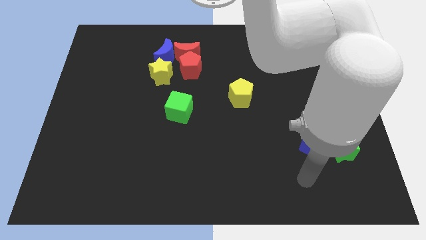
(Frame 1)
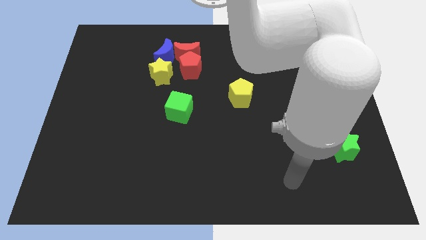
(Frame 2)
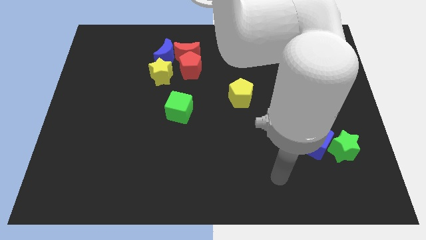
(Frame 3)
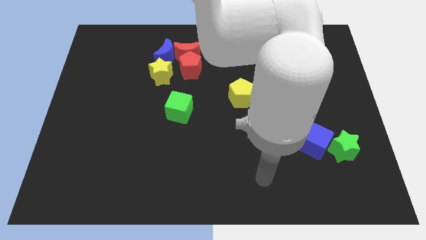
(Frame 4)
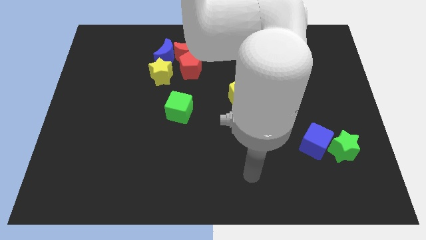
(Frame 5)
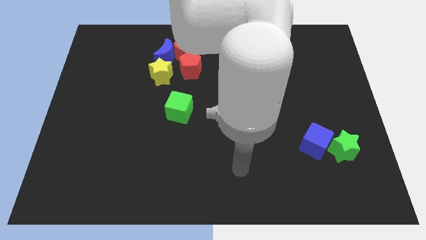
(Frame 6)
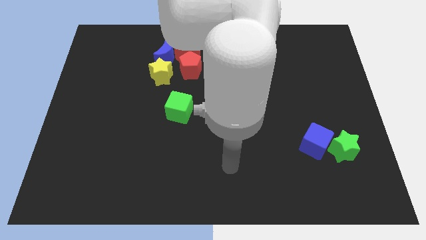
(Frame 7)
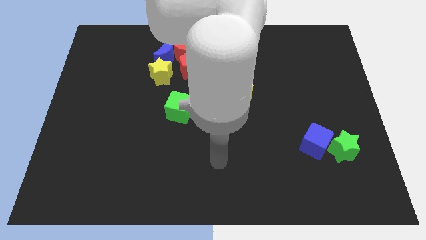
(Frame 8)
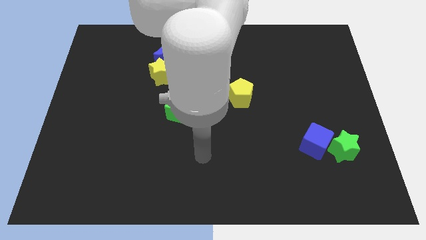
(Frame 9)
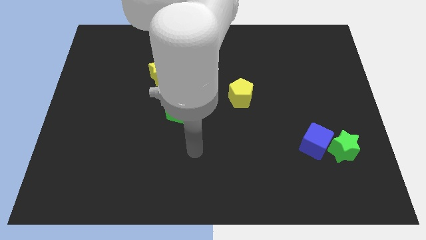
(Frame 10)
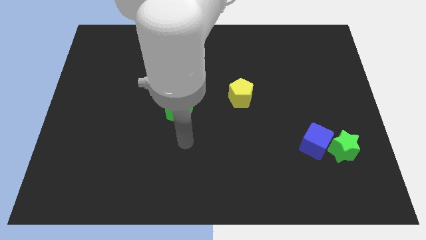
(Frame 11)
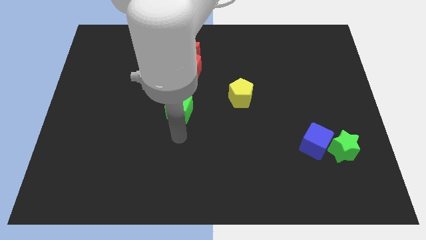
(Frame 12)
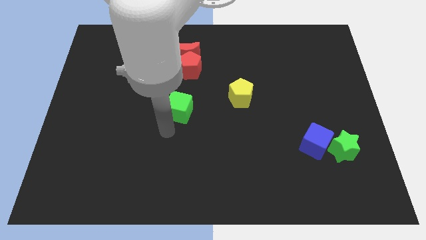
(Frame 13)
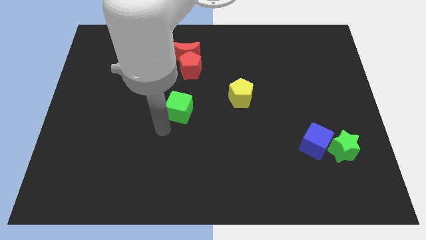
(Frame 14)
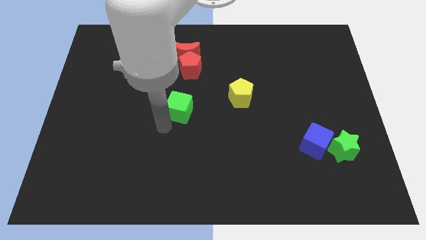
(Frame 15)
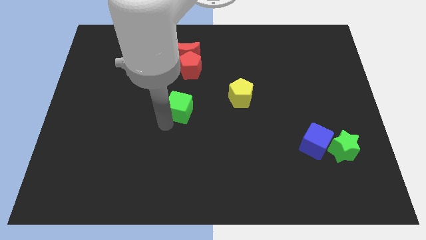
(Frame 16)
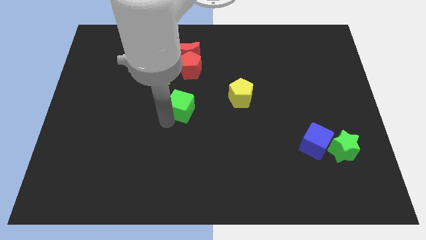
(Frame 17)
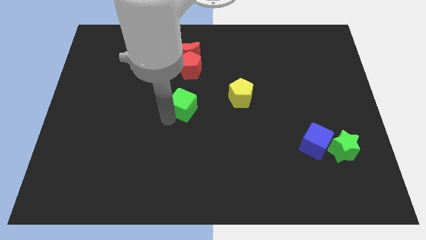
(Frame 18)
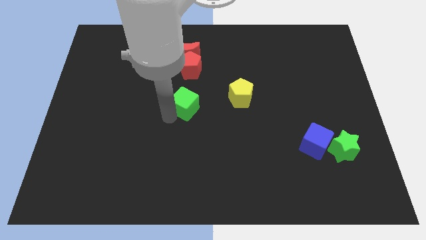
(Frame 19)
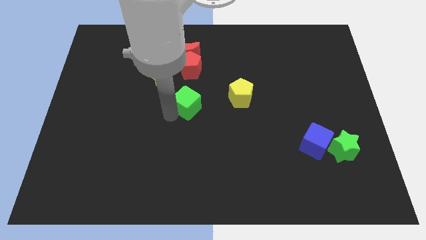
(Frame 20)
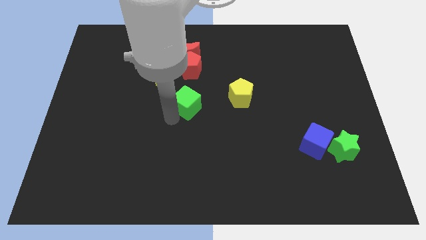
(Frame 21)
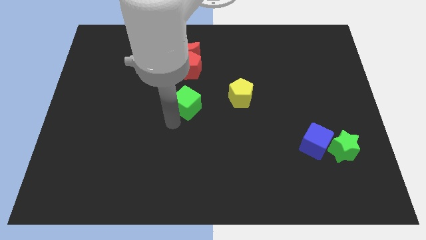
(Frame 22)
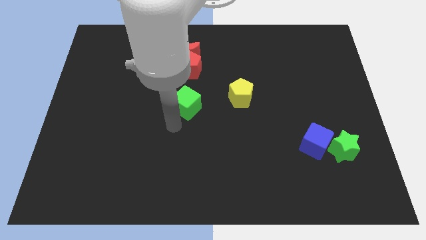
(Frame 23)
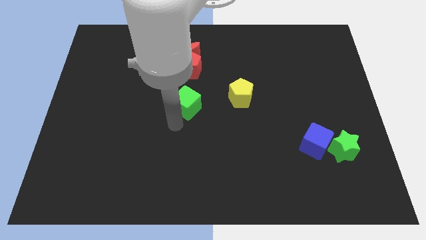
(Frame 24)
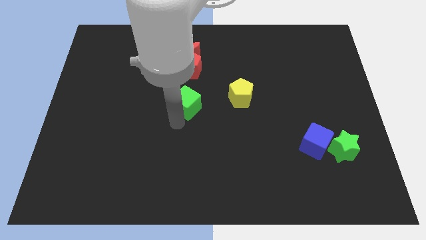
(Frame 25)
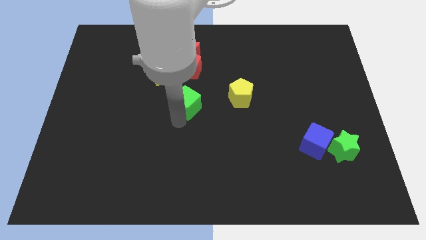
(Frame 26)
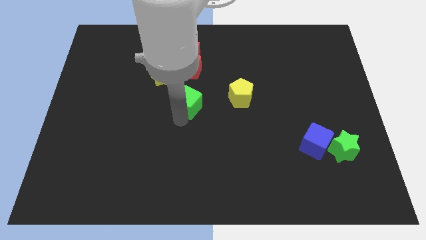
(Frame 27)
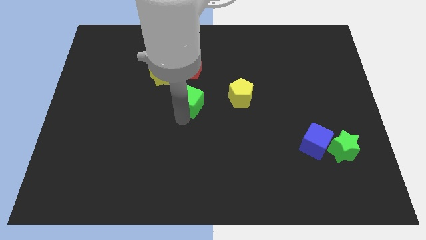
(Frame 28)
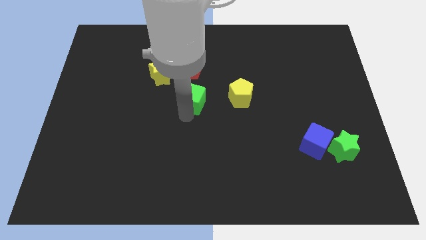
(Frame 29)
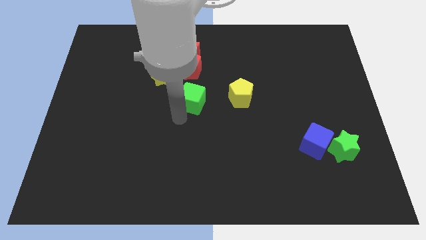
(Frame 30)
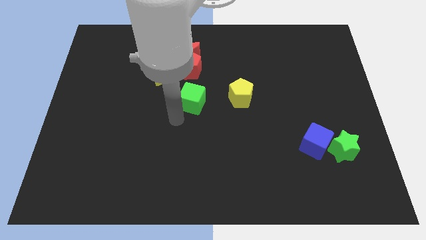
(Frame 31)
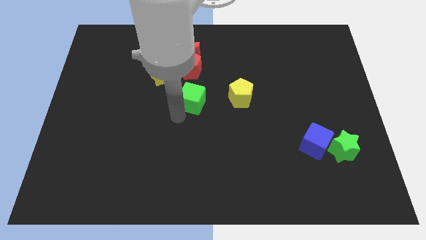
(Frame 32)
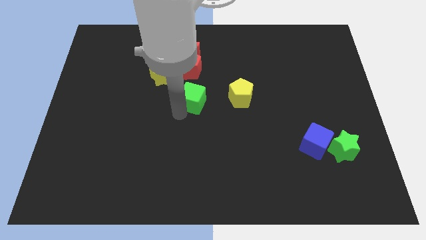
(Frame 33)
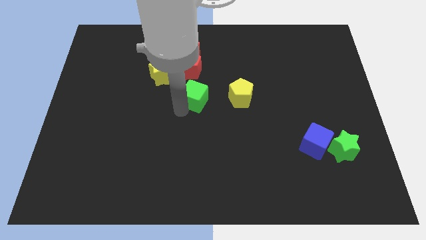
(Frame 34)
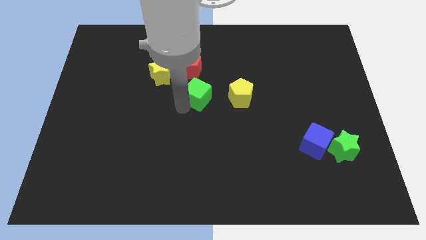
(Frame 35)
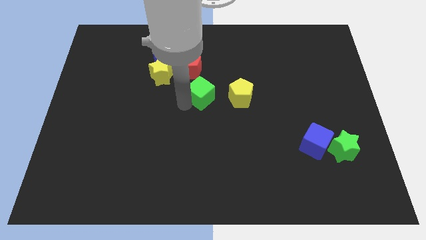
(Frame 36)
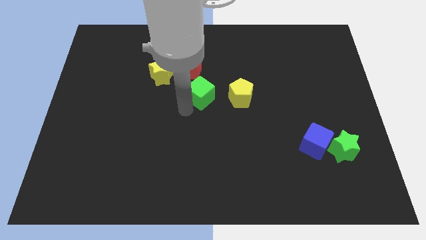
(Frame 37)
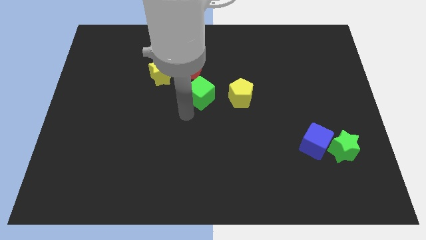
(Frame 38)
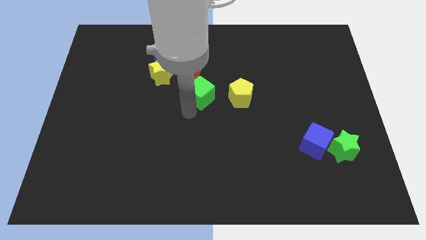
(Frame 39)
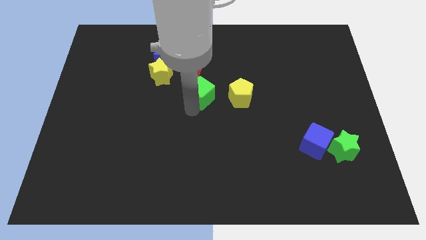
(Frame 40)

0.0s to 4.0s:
move the green cube upwards and to the right a little

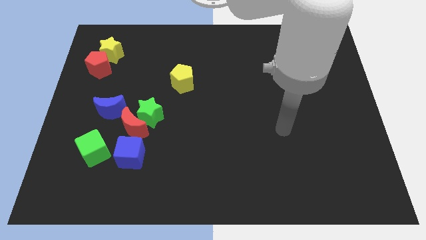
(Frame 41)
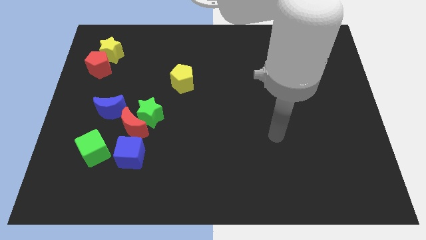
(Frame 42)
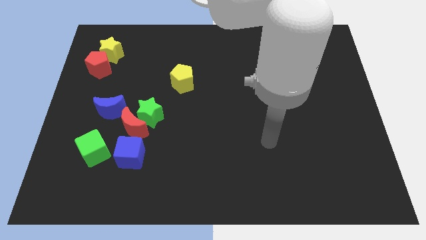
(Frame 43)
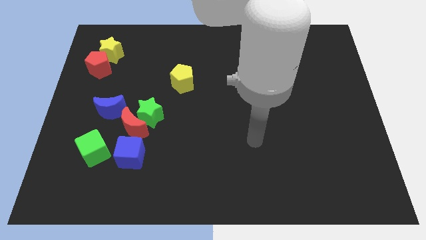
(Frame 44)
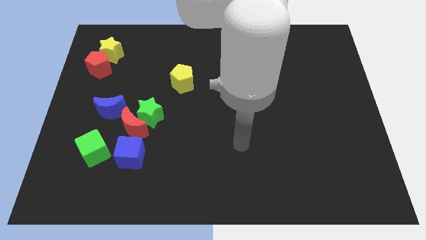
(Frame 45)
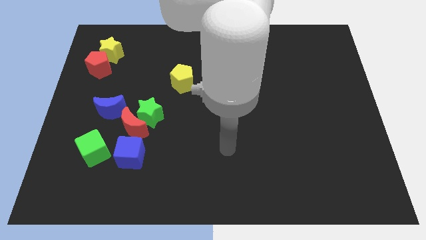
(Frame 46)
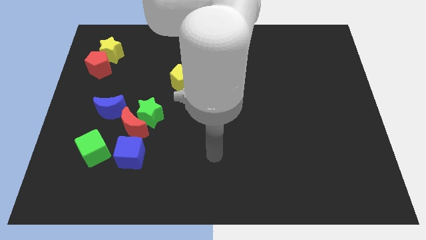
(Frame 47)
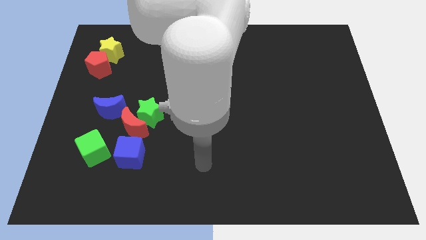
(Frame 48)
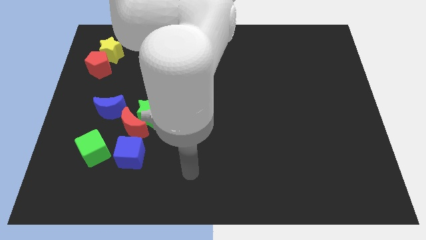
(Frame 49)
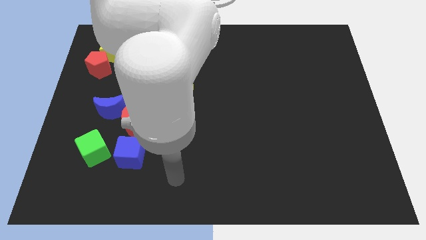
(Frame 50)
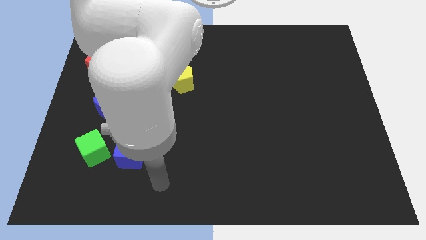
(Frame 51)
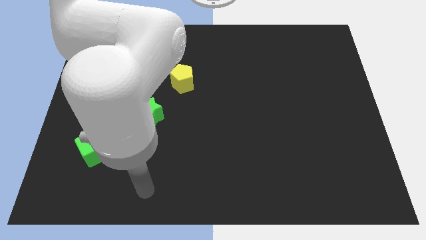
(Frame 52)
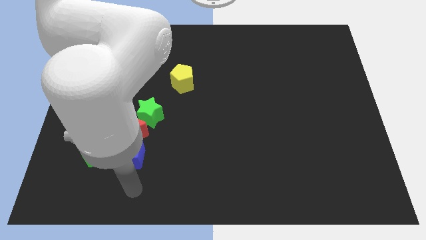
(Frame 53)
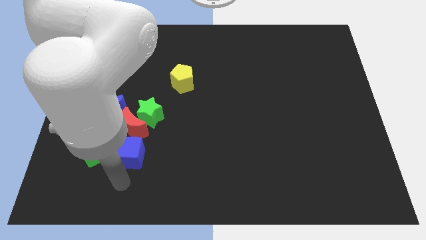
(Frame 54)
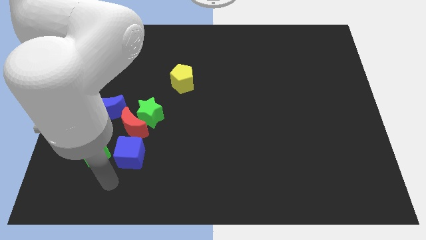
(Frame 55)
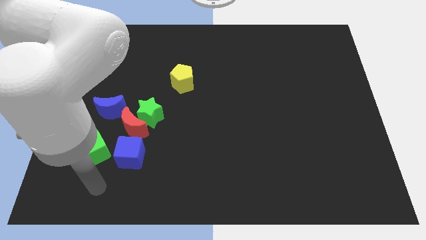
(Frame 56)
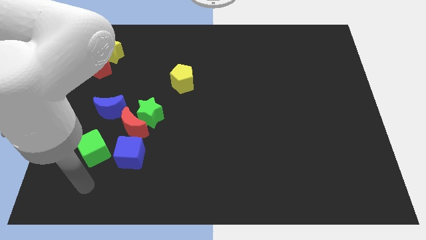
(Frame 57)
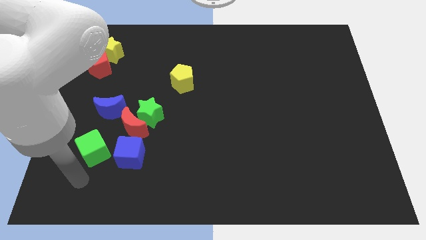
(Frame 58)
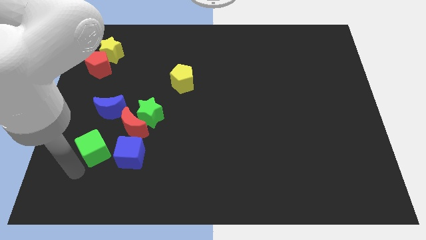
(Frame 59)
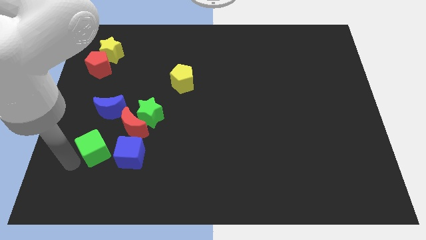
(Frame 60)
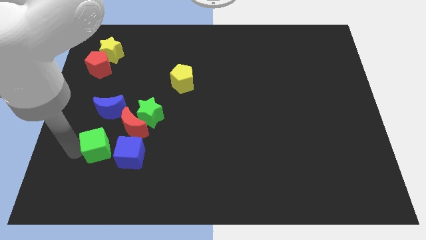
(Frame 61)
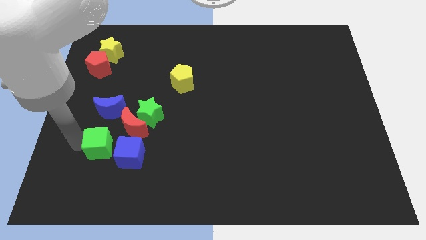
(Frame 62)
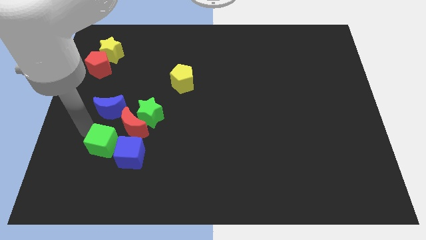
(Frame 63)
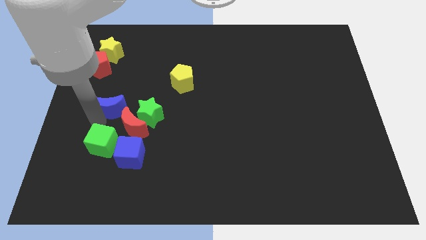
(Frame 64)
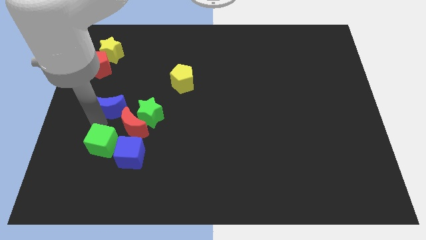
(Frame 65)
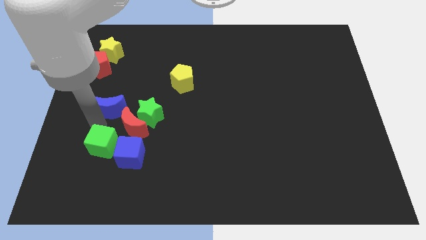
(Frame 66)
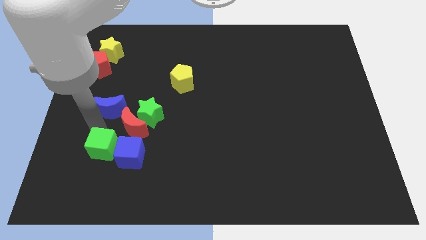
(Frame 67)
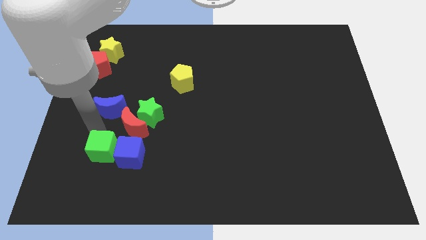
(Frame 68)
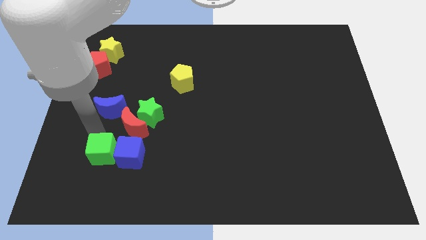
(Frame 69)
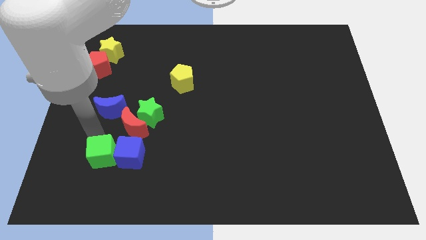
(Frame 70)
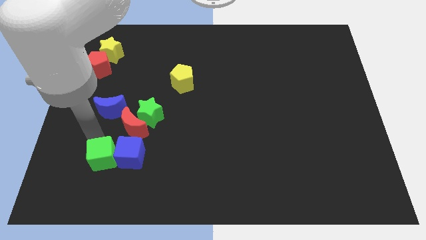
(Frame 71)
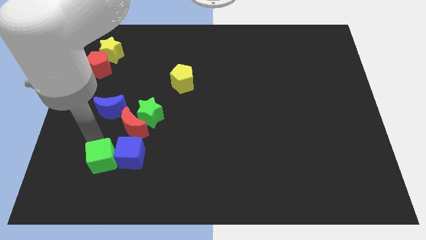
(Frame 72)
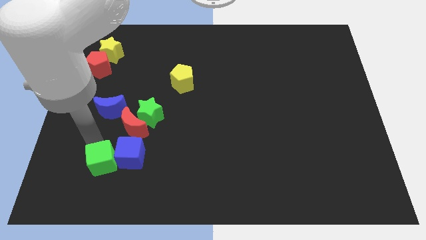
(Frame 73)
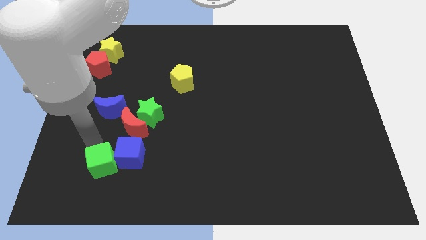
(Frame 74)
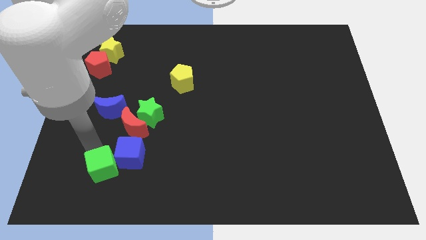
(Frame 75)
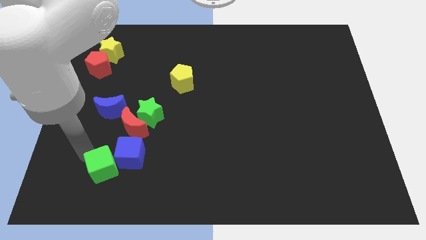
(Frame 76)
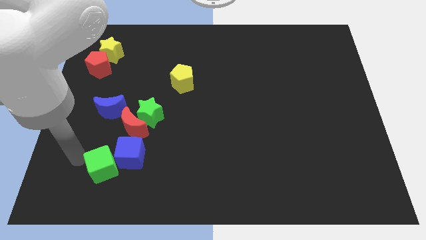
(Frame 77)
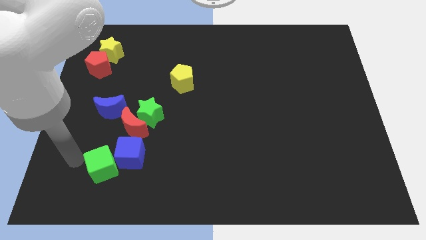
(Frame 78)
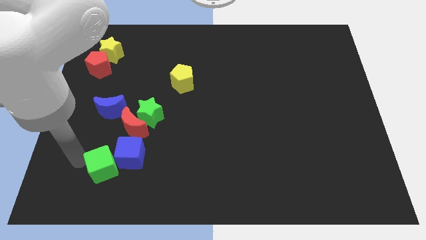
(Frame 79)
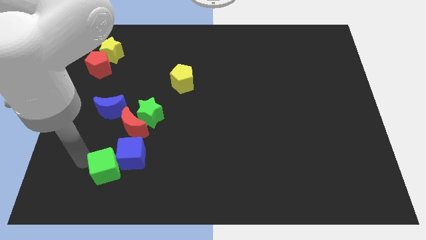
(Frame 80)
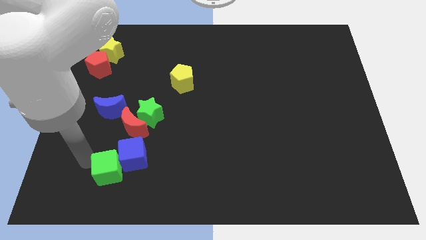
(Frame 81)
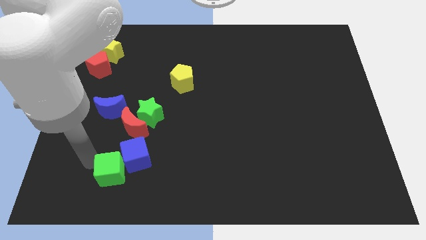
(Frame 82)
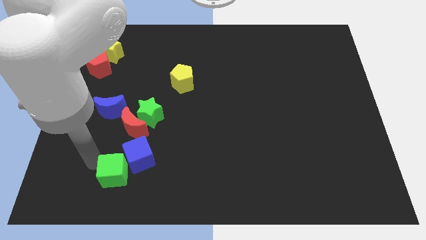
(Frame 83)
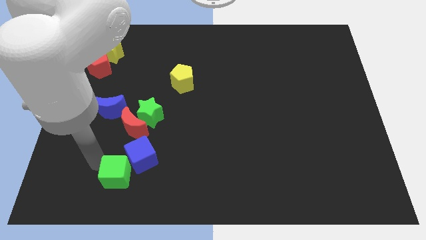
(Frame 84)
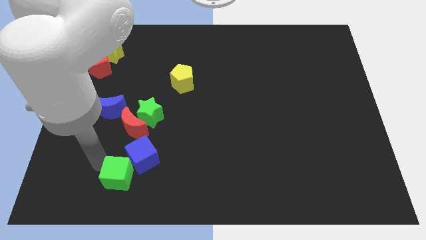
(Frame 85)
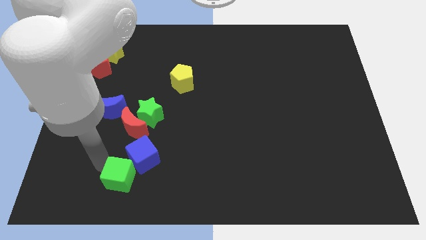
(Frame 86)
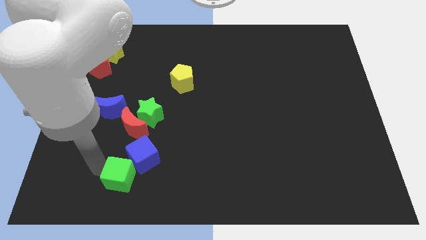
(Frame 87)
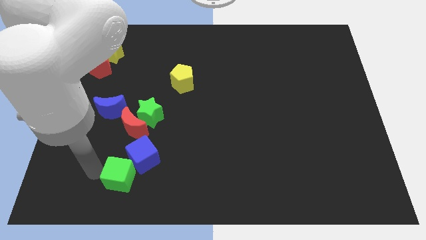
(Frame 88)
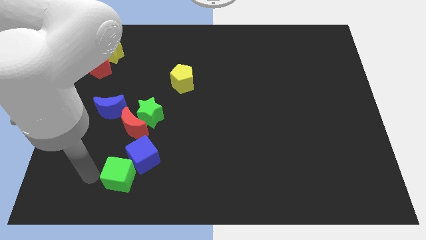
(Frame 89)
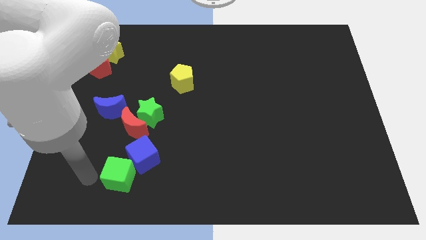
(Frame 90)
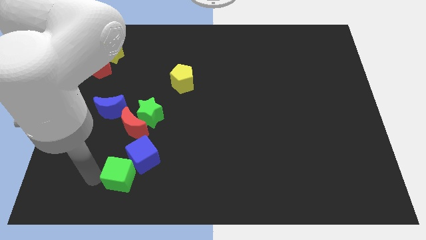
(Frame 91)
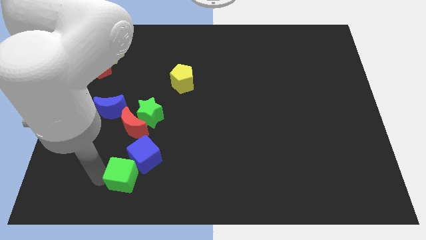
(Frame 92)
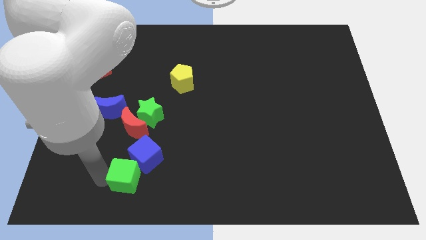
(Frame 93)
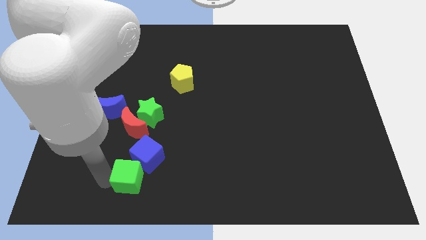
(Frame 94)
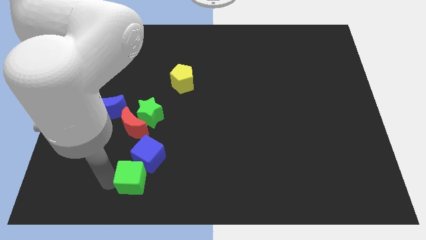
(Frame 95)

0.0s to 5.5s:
slightly move the green cube right
